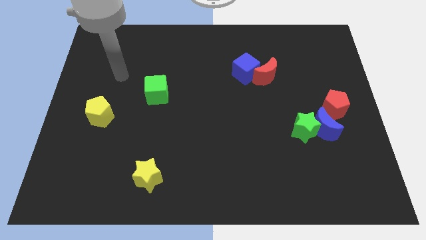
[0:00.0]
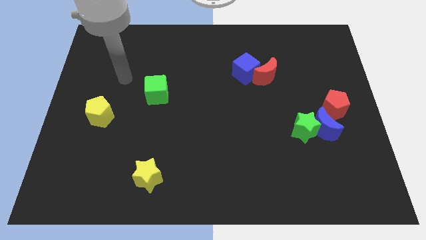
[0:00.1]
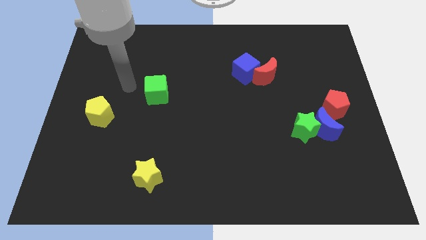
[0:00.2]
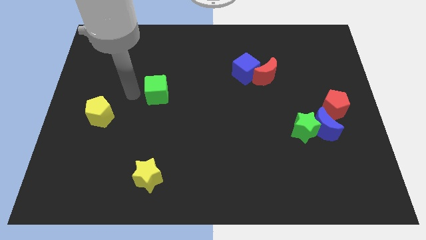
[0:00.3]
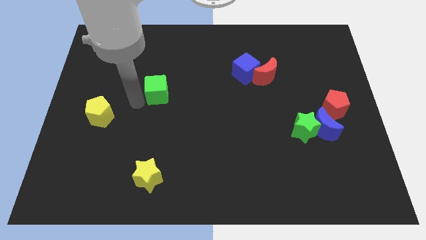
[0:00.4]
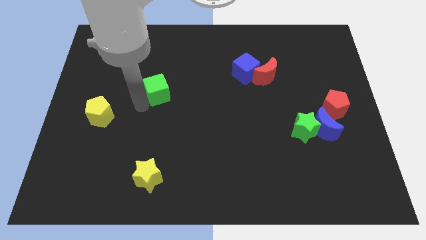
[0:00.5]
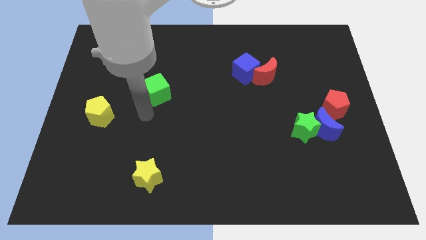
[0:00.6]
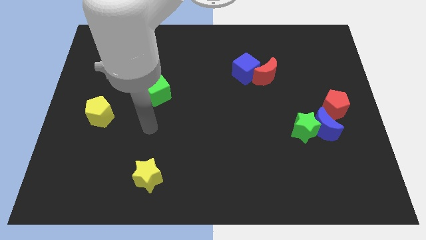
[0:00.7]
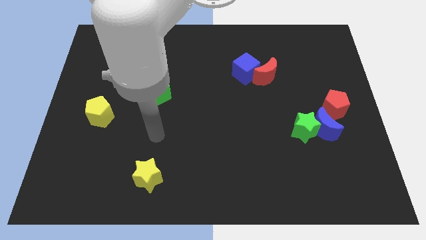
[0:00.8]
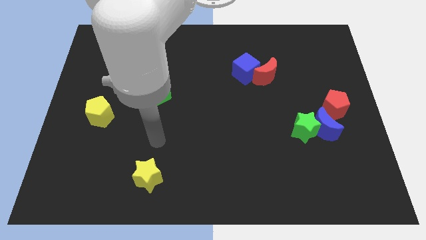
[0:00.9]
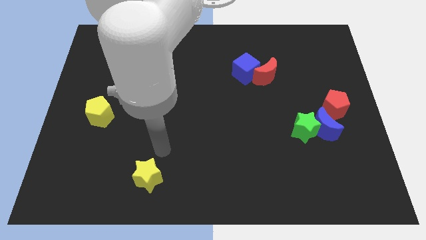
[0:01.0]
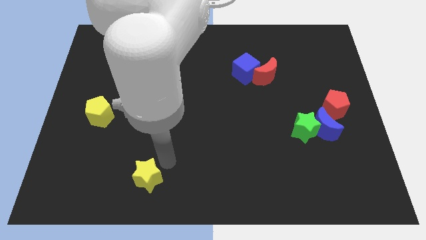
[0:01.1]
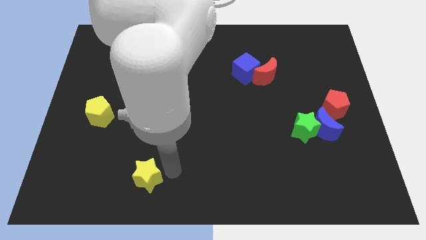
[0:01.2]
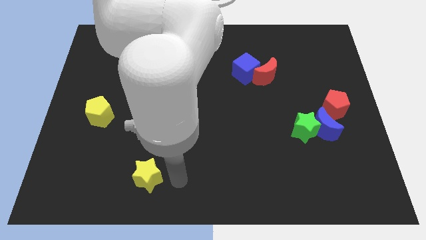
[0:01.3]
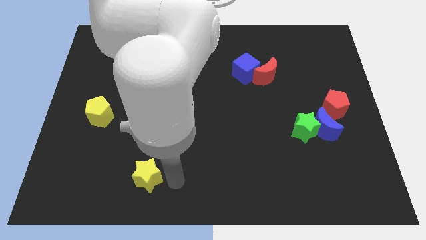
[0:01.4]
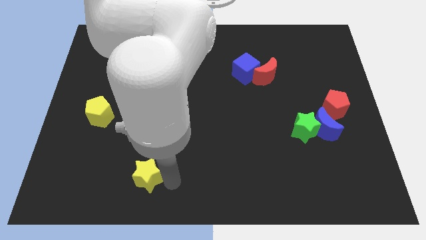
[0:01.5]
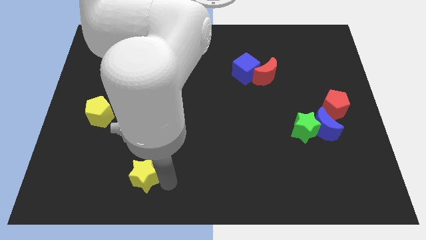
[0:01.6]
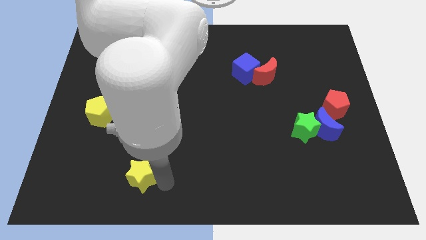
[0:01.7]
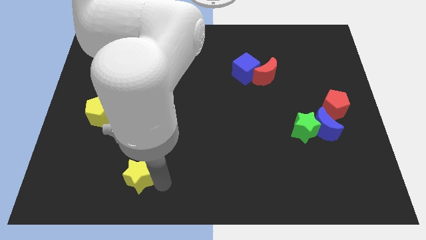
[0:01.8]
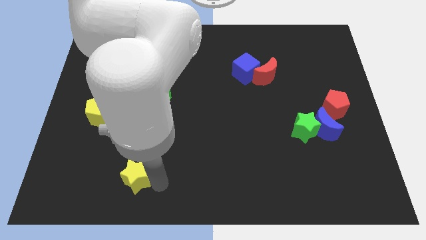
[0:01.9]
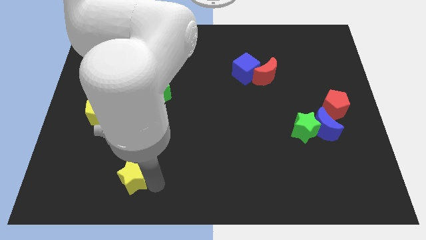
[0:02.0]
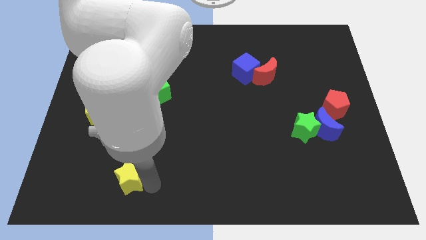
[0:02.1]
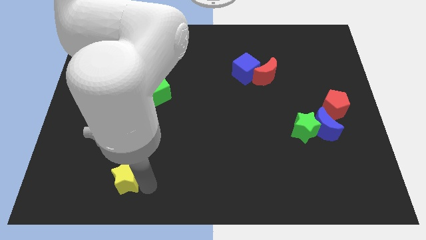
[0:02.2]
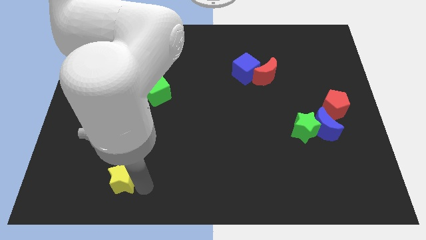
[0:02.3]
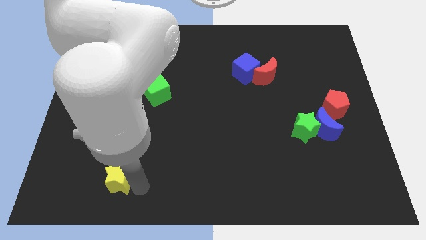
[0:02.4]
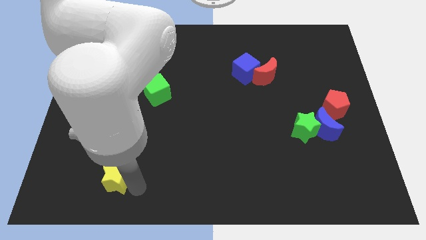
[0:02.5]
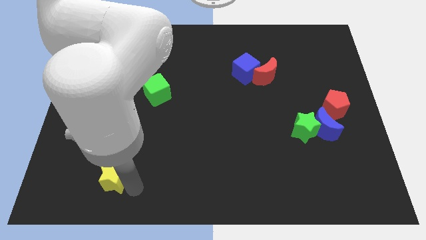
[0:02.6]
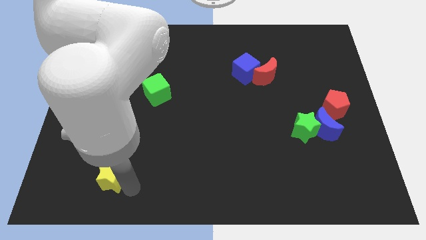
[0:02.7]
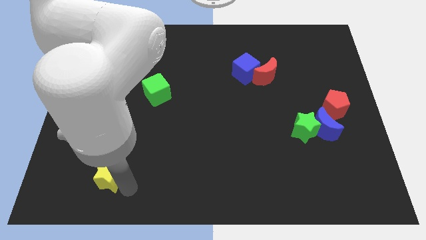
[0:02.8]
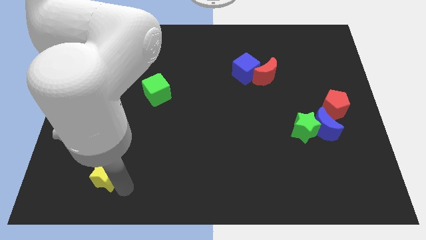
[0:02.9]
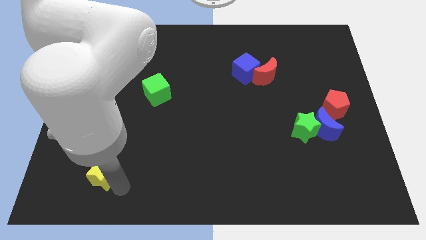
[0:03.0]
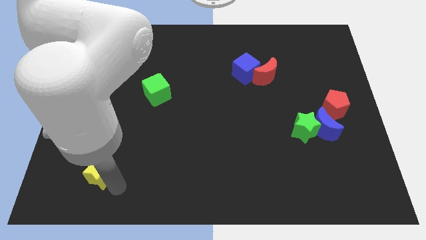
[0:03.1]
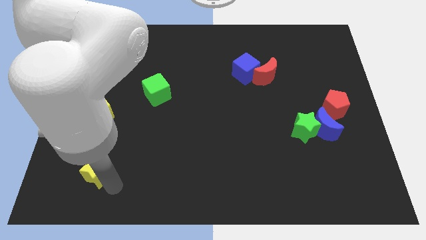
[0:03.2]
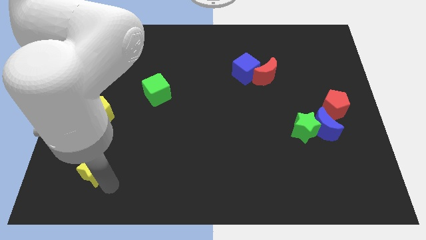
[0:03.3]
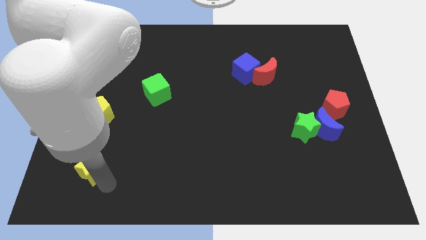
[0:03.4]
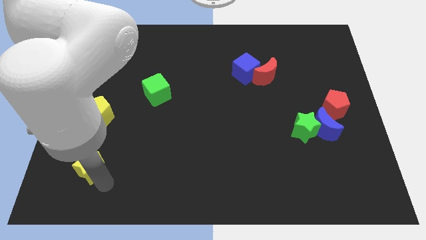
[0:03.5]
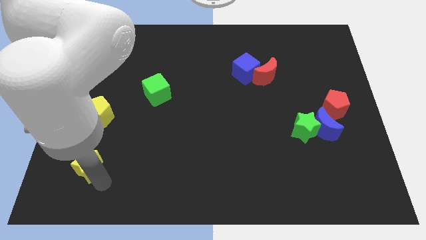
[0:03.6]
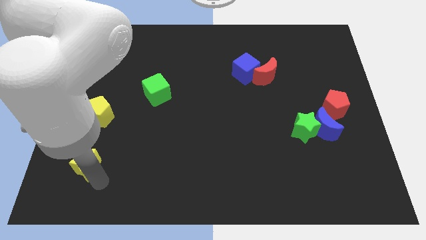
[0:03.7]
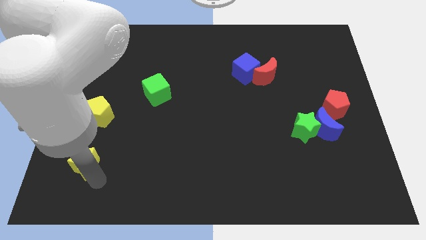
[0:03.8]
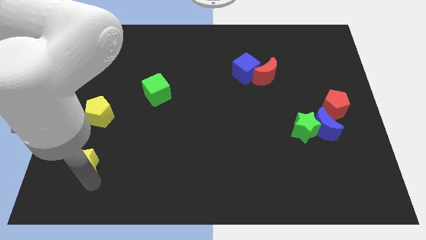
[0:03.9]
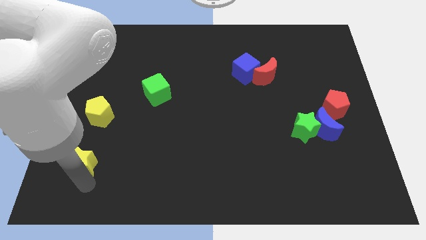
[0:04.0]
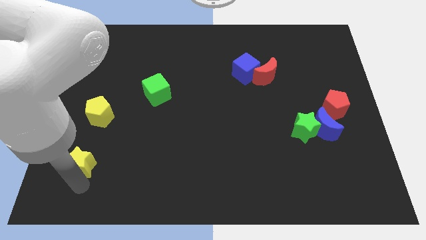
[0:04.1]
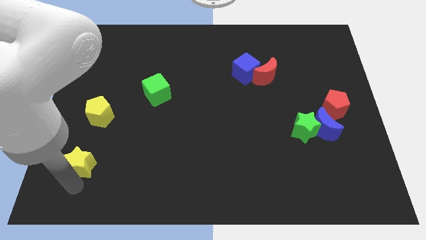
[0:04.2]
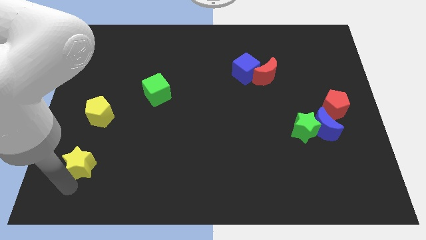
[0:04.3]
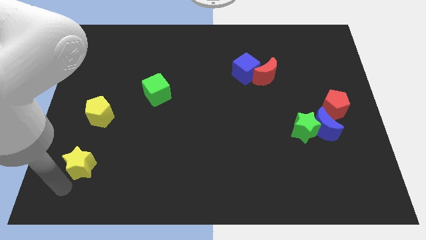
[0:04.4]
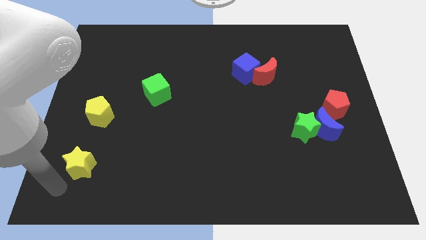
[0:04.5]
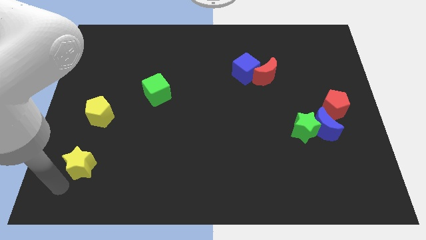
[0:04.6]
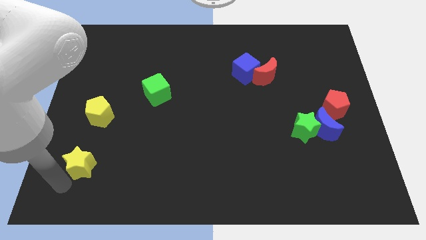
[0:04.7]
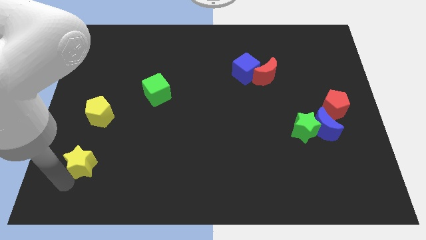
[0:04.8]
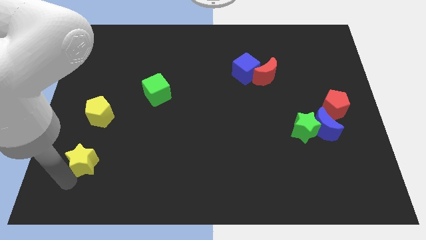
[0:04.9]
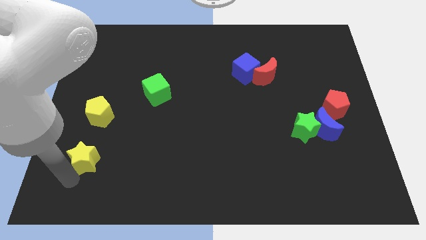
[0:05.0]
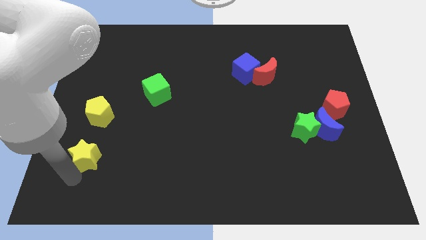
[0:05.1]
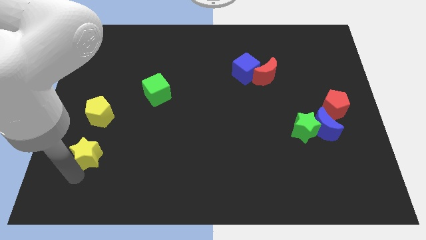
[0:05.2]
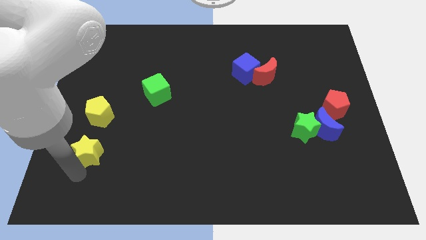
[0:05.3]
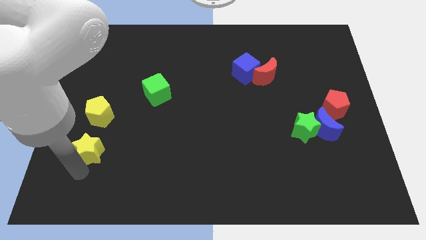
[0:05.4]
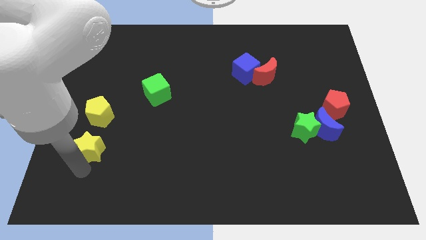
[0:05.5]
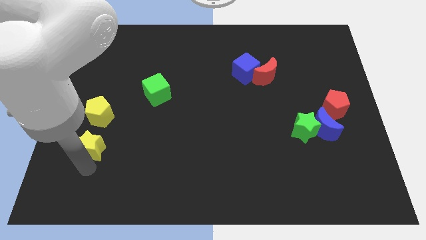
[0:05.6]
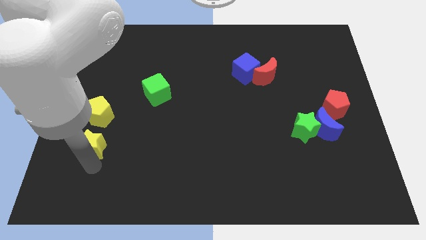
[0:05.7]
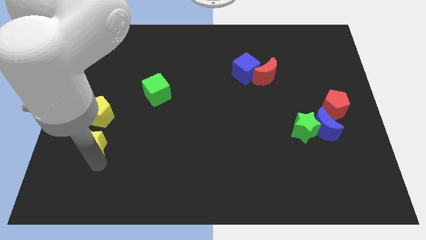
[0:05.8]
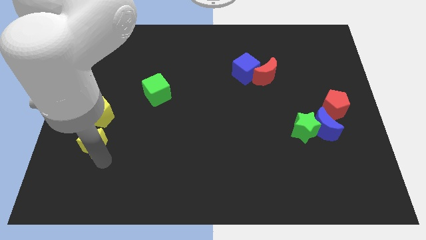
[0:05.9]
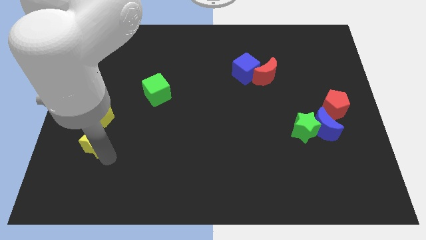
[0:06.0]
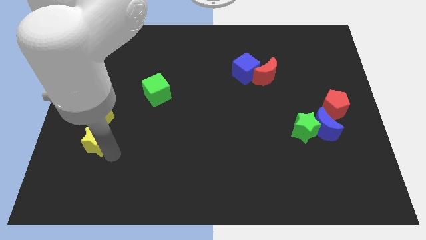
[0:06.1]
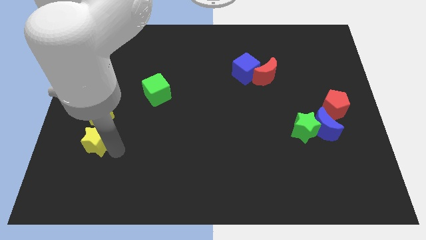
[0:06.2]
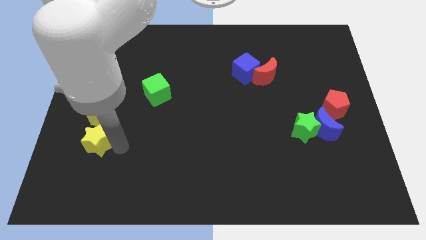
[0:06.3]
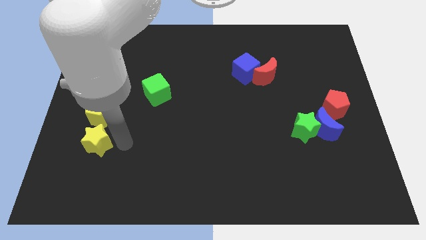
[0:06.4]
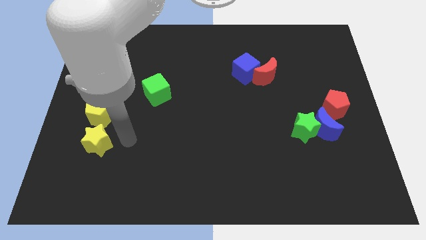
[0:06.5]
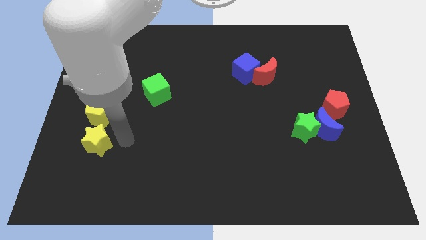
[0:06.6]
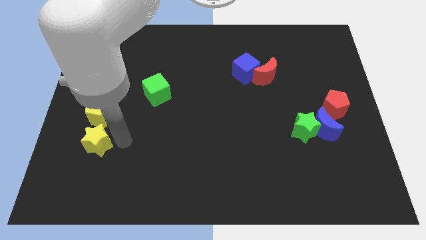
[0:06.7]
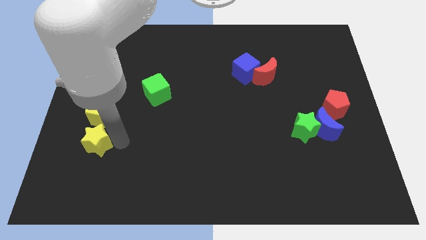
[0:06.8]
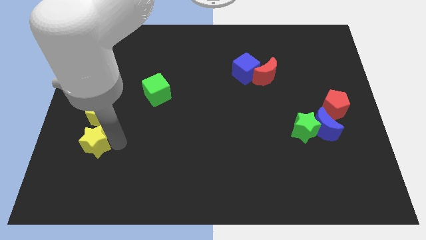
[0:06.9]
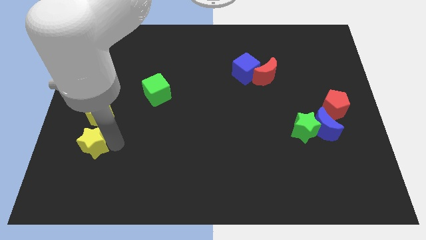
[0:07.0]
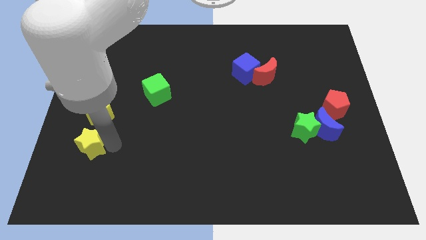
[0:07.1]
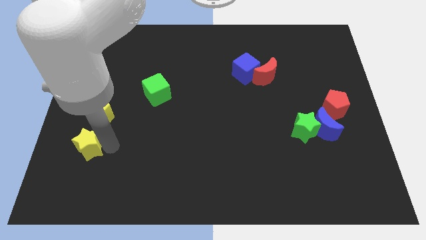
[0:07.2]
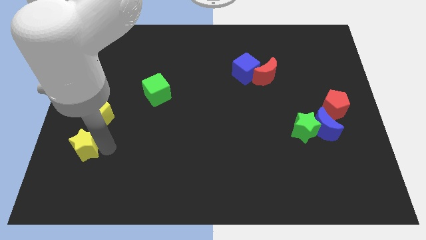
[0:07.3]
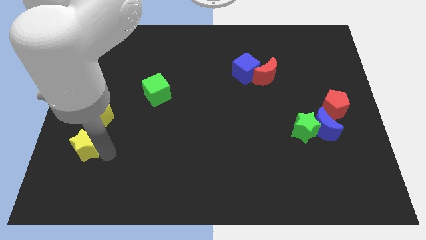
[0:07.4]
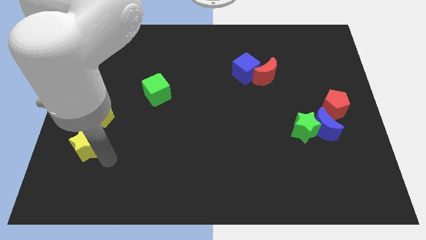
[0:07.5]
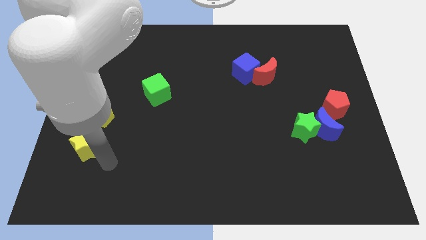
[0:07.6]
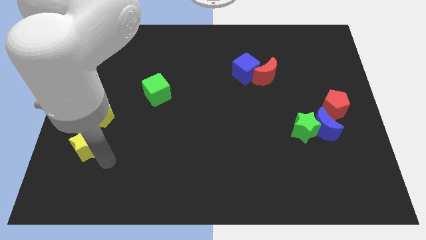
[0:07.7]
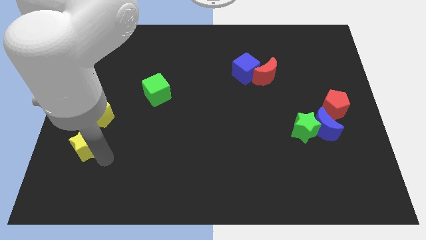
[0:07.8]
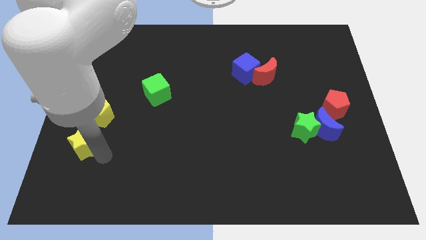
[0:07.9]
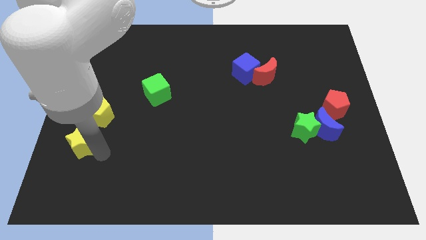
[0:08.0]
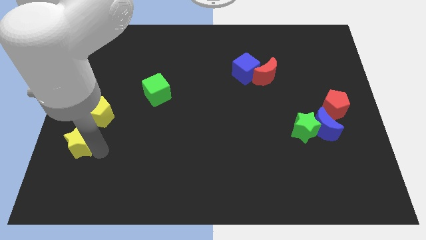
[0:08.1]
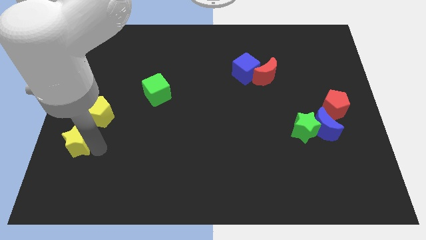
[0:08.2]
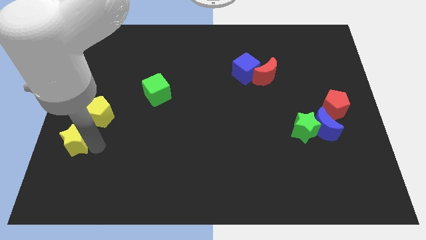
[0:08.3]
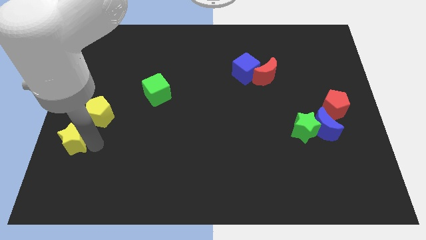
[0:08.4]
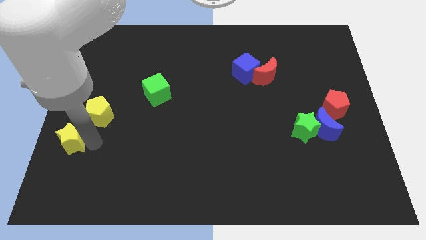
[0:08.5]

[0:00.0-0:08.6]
put the yellow star to the left side of the board
